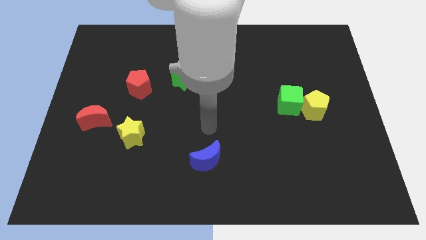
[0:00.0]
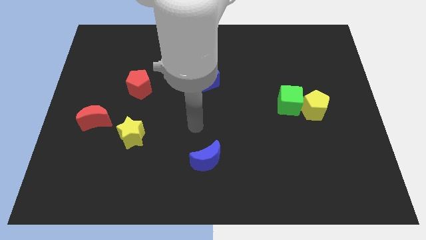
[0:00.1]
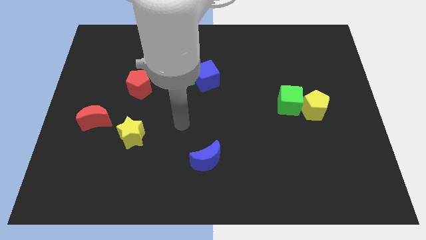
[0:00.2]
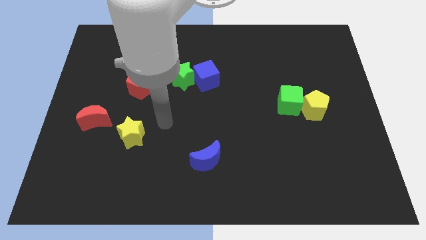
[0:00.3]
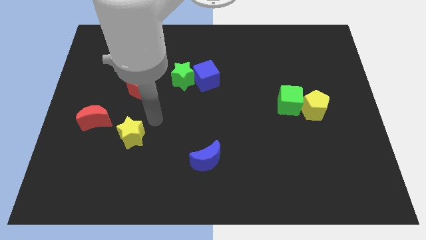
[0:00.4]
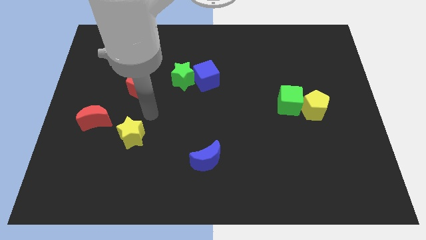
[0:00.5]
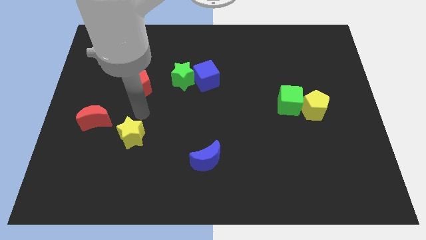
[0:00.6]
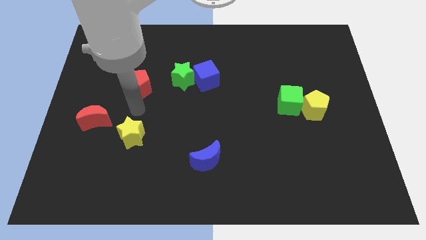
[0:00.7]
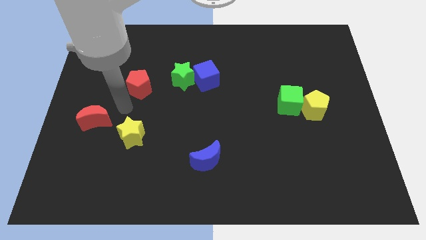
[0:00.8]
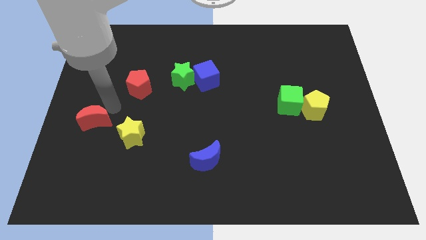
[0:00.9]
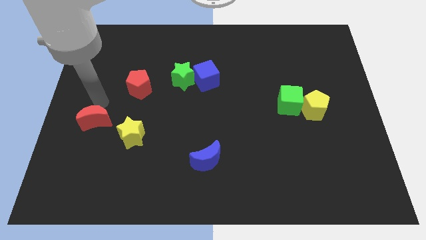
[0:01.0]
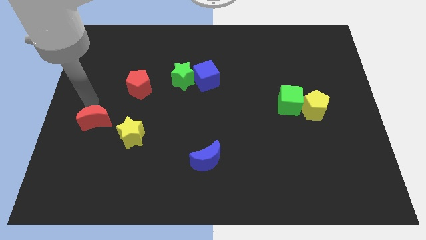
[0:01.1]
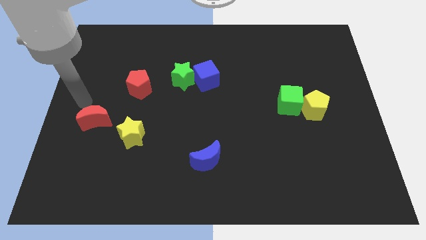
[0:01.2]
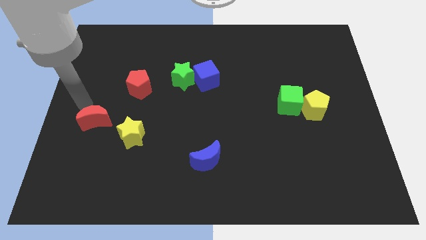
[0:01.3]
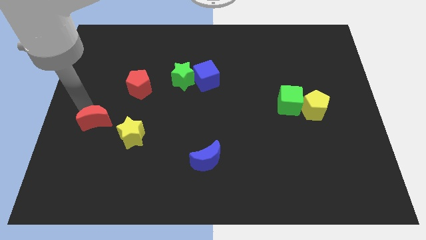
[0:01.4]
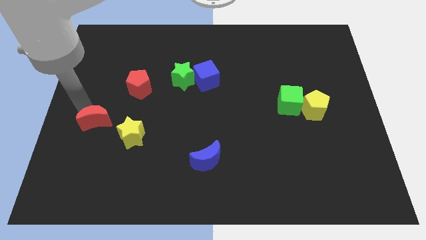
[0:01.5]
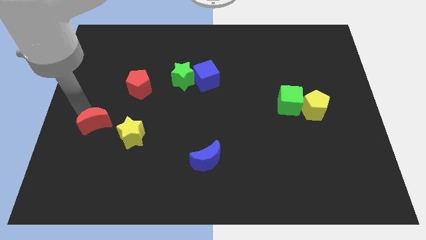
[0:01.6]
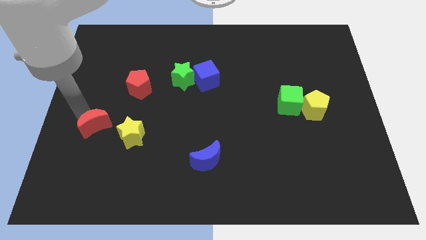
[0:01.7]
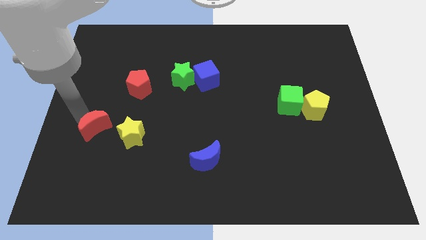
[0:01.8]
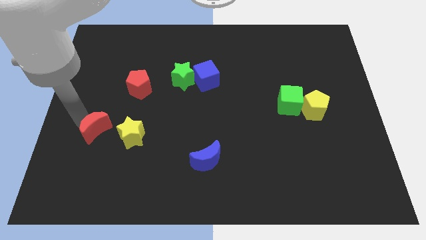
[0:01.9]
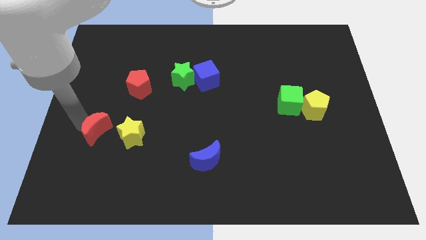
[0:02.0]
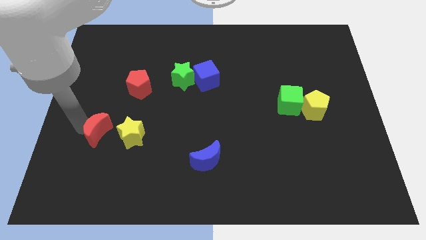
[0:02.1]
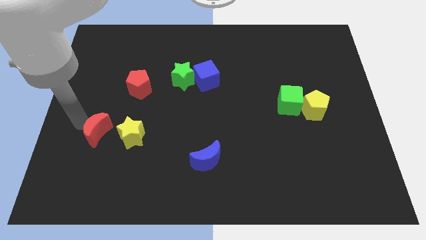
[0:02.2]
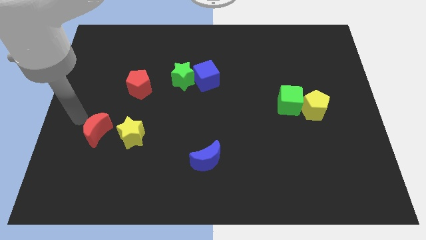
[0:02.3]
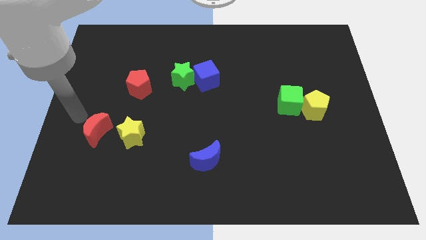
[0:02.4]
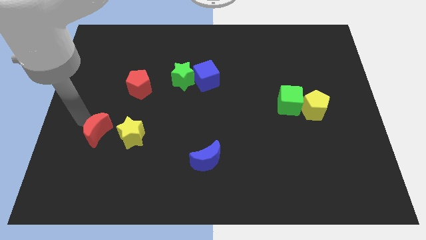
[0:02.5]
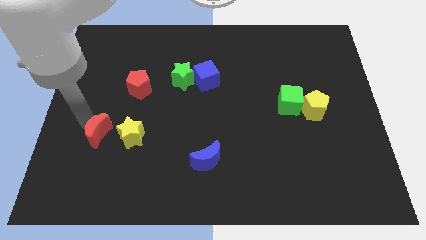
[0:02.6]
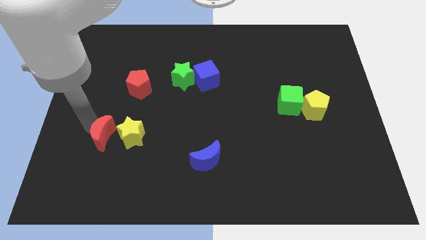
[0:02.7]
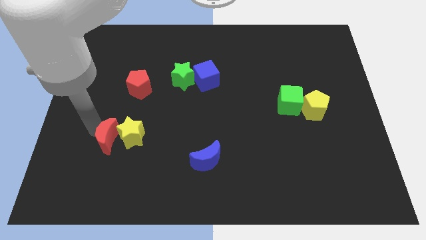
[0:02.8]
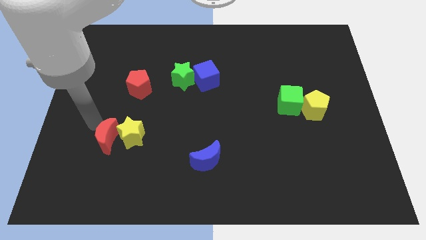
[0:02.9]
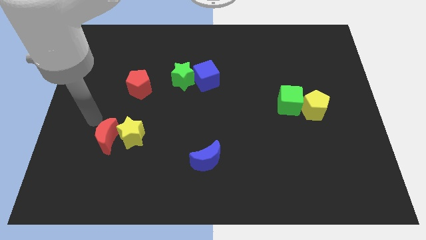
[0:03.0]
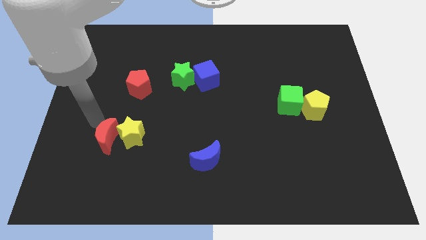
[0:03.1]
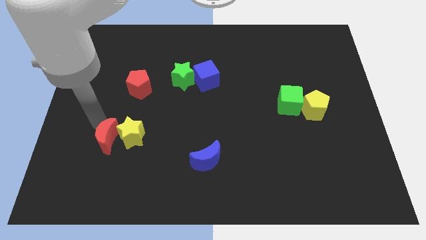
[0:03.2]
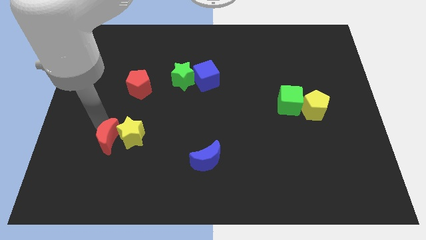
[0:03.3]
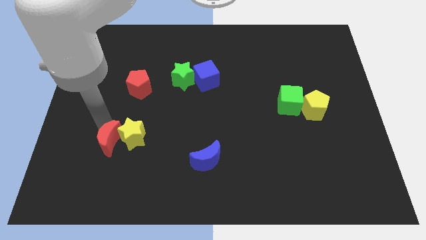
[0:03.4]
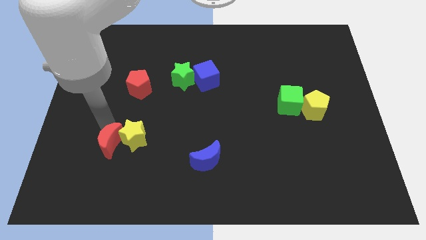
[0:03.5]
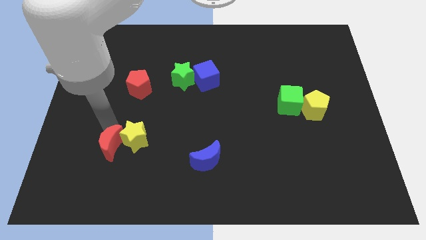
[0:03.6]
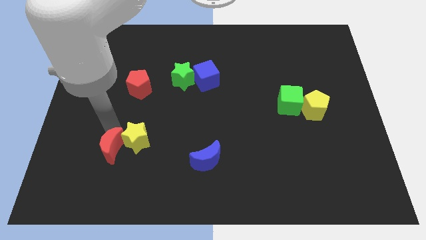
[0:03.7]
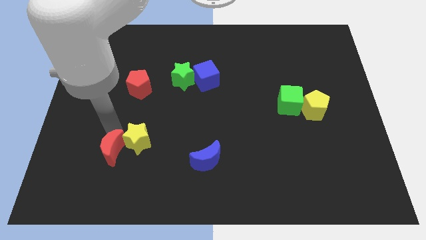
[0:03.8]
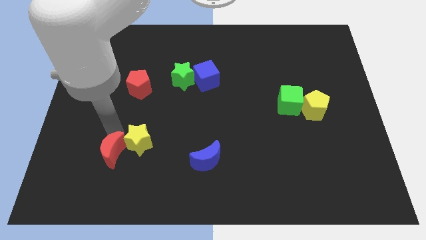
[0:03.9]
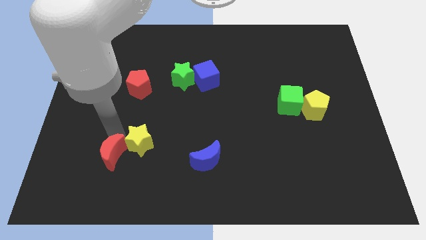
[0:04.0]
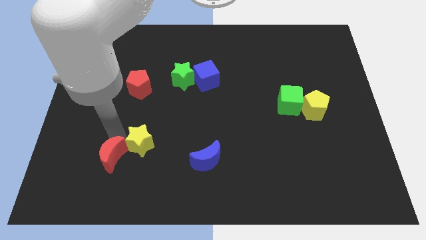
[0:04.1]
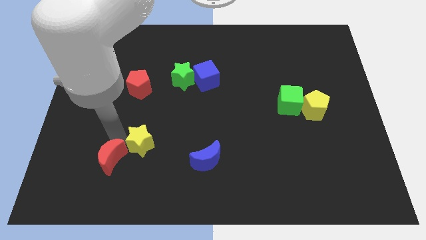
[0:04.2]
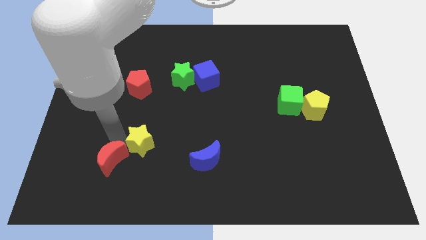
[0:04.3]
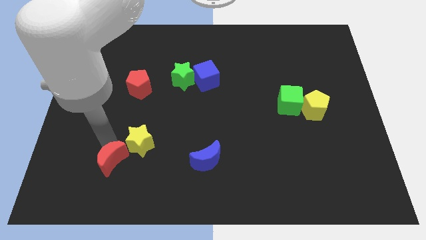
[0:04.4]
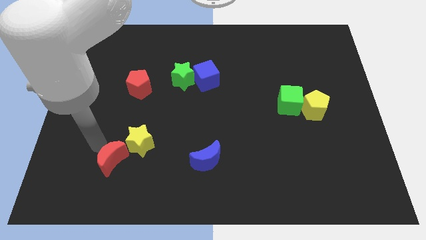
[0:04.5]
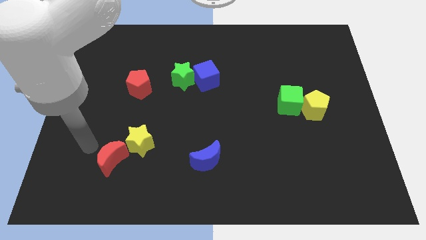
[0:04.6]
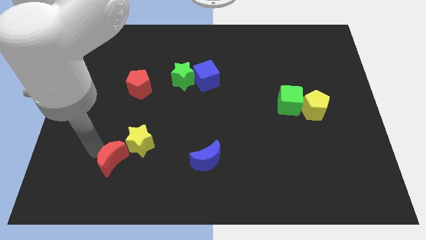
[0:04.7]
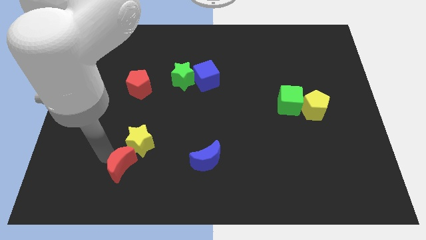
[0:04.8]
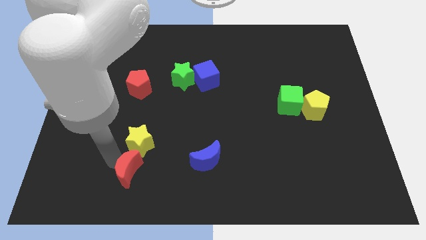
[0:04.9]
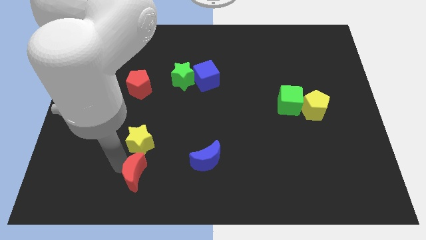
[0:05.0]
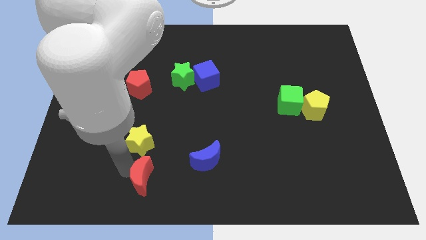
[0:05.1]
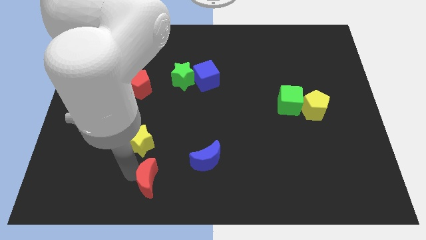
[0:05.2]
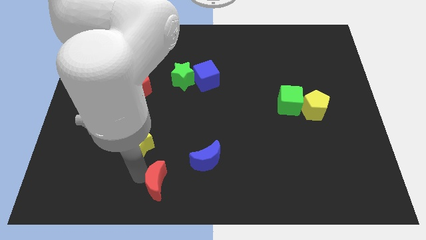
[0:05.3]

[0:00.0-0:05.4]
slide the red moon to the bottom side

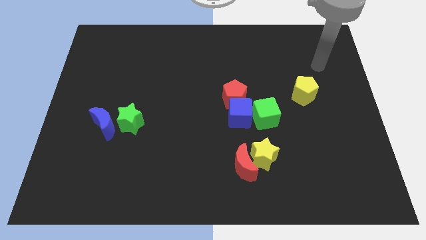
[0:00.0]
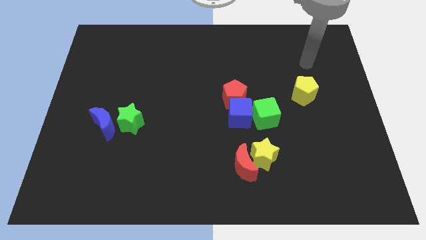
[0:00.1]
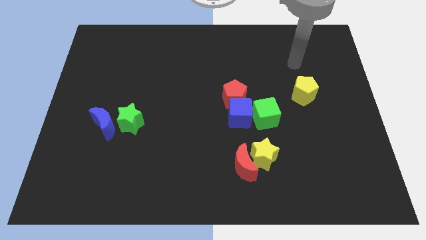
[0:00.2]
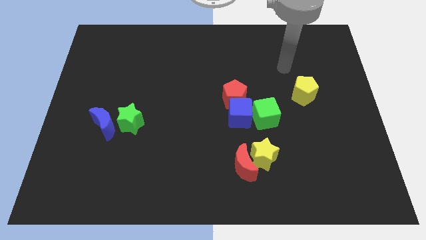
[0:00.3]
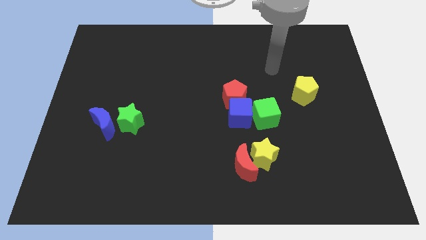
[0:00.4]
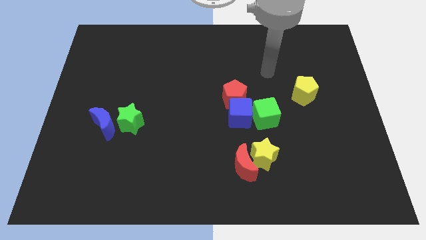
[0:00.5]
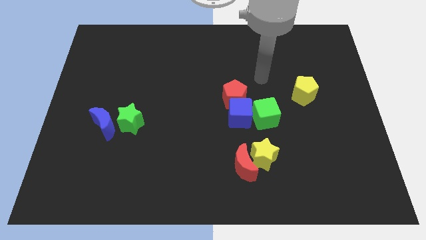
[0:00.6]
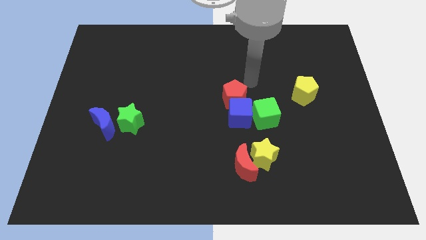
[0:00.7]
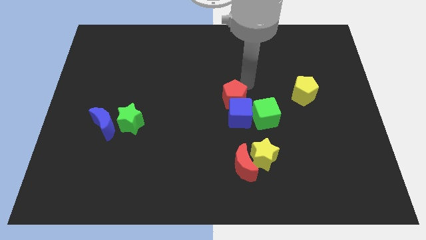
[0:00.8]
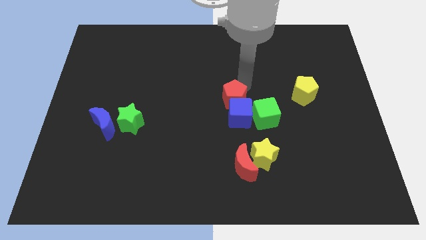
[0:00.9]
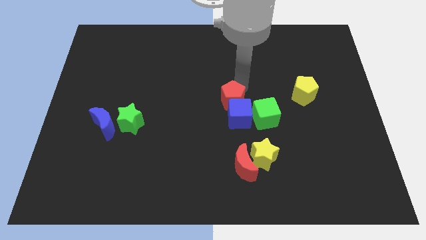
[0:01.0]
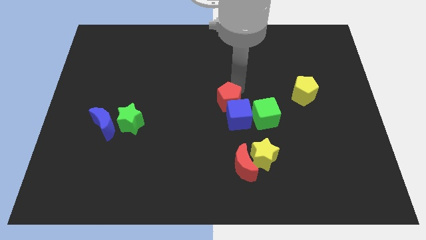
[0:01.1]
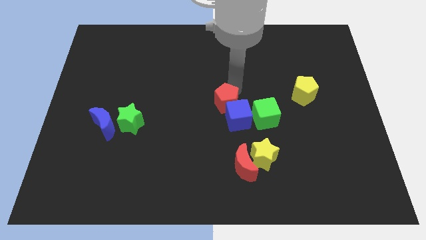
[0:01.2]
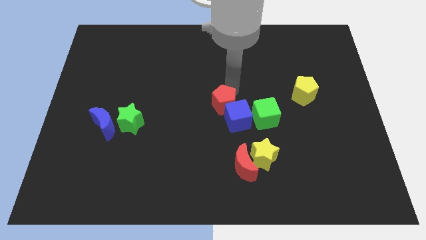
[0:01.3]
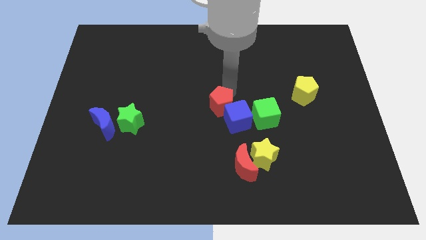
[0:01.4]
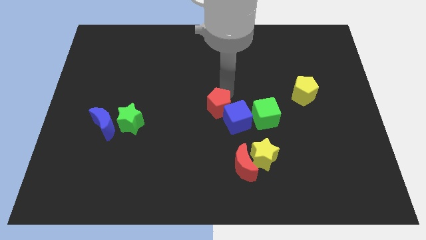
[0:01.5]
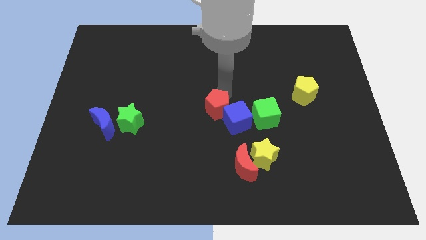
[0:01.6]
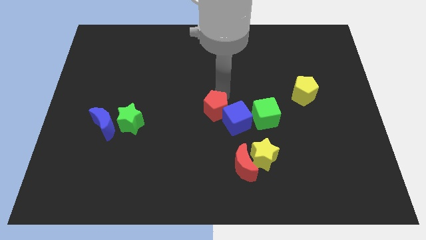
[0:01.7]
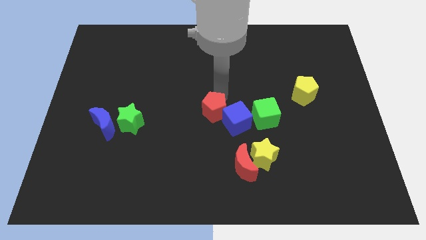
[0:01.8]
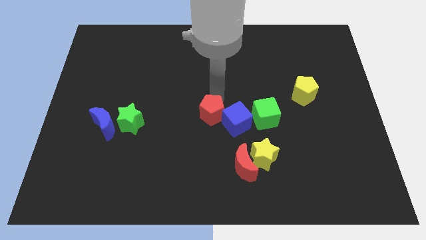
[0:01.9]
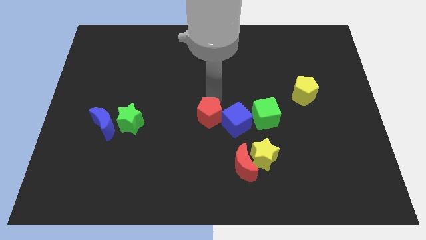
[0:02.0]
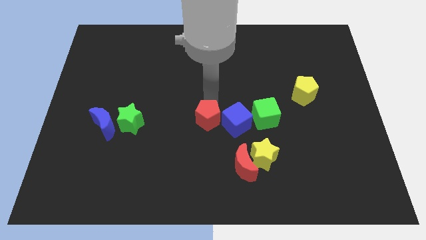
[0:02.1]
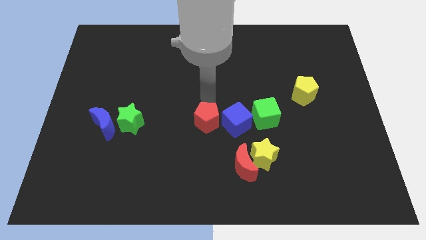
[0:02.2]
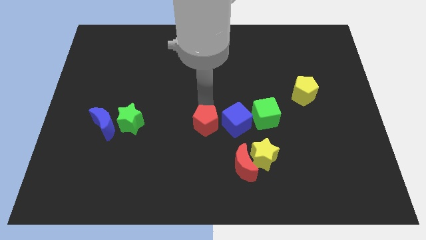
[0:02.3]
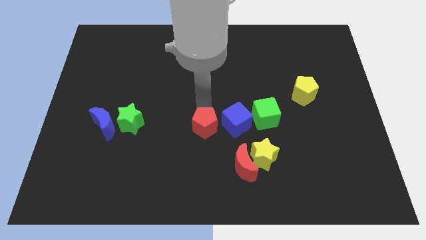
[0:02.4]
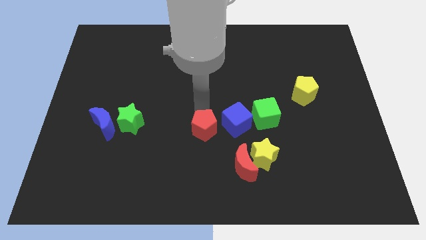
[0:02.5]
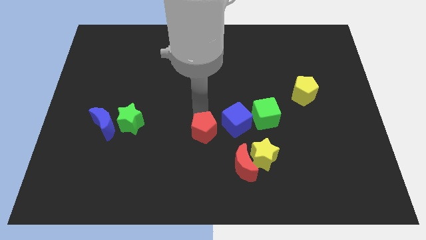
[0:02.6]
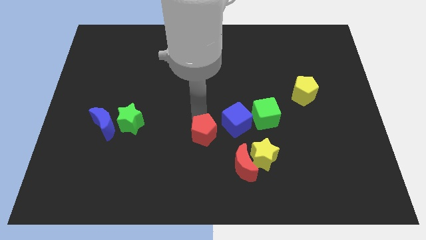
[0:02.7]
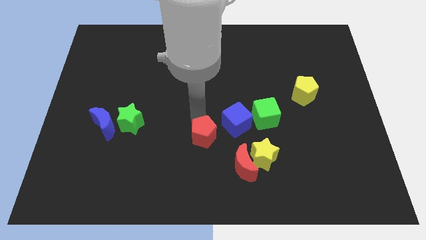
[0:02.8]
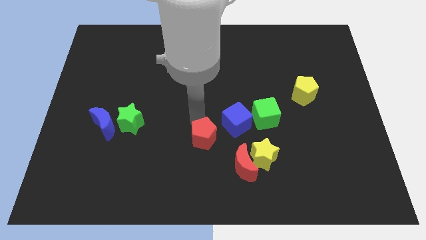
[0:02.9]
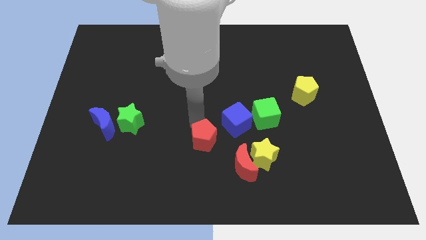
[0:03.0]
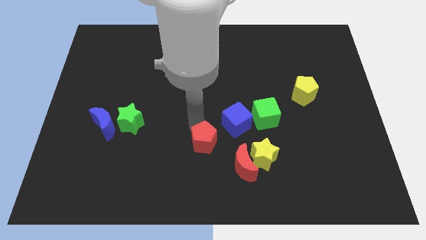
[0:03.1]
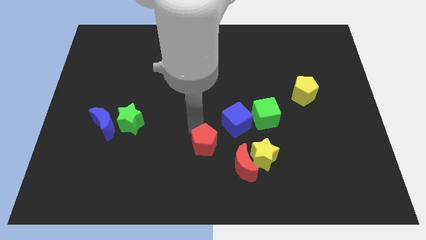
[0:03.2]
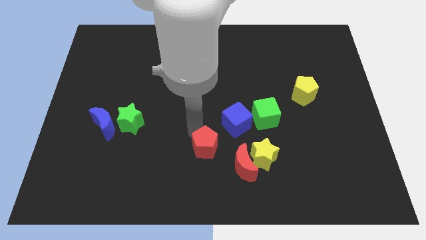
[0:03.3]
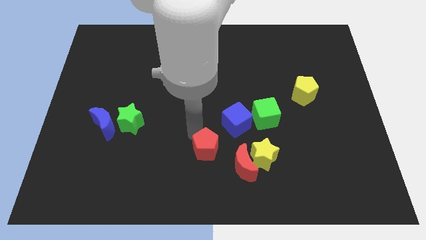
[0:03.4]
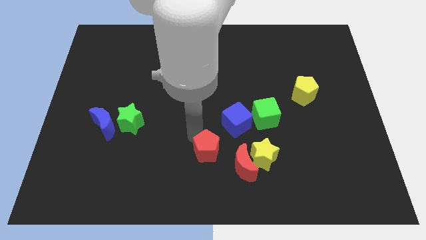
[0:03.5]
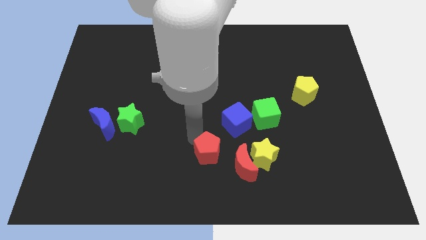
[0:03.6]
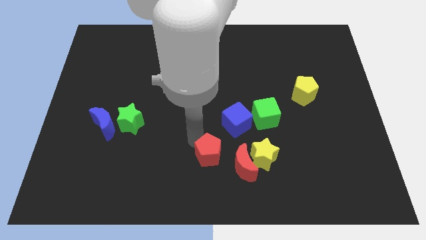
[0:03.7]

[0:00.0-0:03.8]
move the red pentagon to the bottom side
